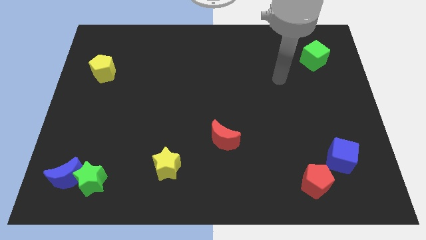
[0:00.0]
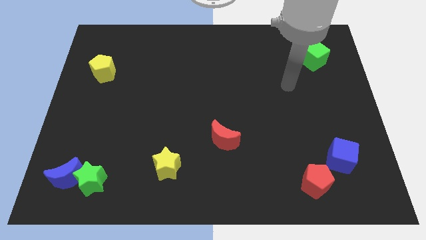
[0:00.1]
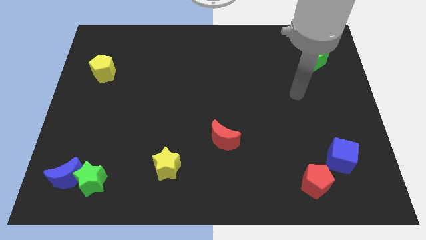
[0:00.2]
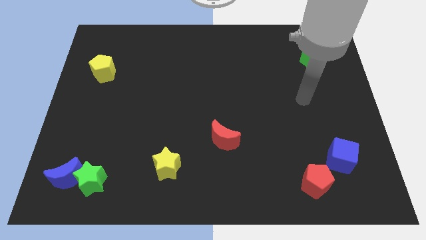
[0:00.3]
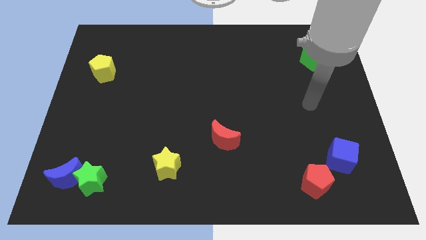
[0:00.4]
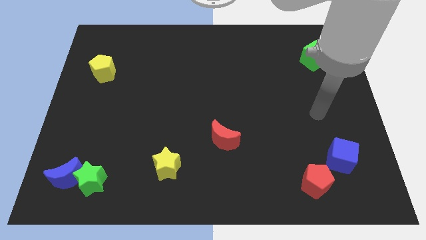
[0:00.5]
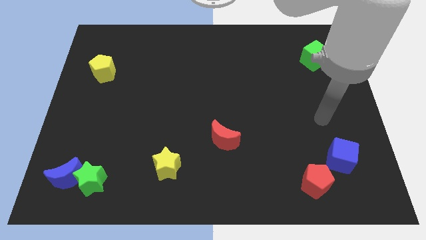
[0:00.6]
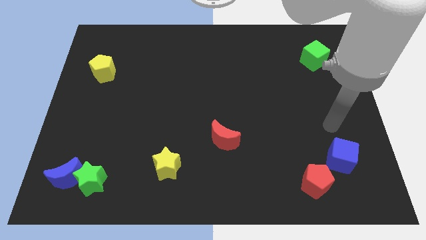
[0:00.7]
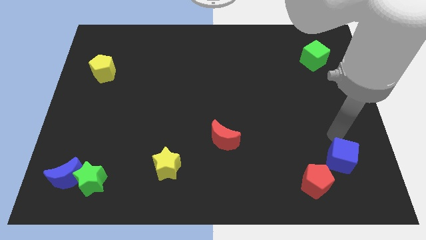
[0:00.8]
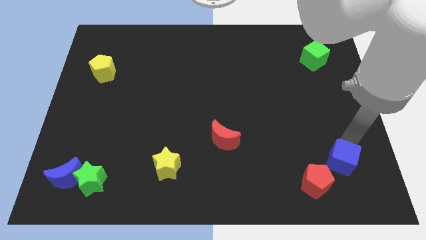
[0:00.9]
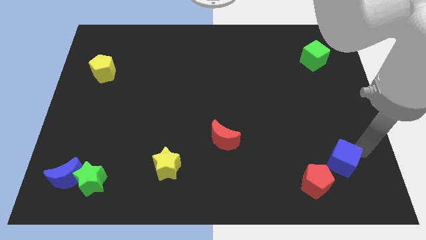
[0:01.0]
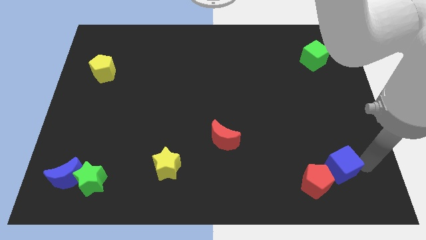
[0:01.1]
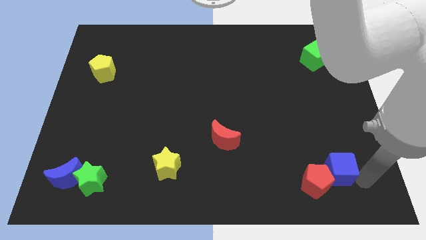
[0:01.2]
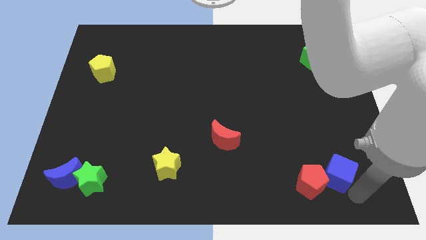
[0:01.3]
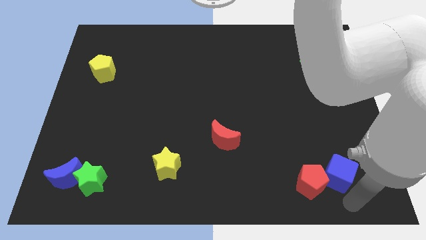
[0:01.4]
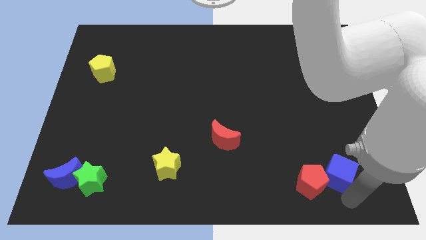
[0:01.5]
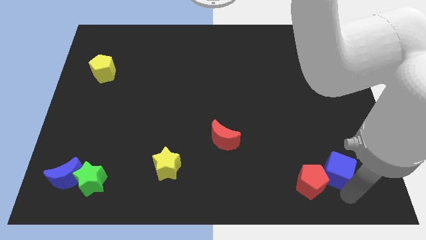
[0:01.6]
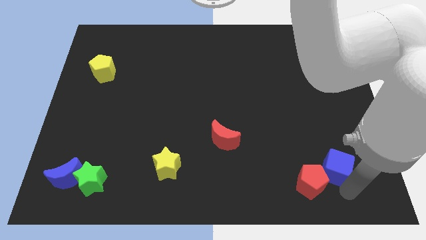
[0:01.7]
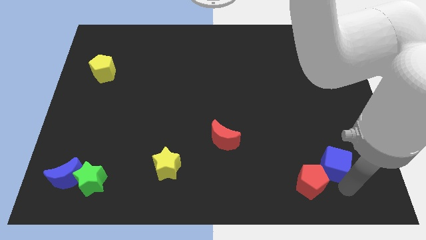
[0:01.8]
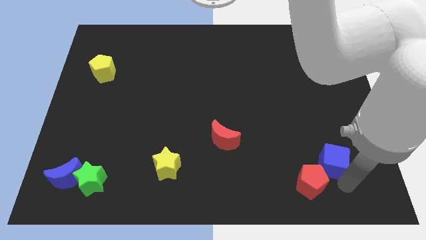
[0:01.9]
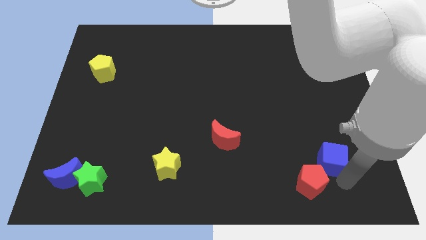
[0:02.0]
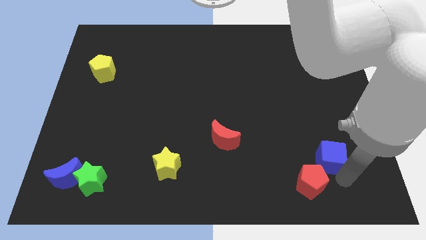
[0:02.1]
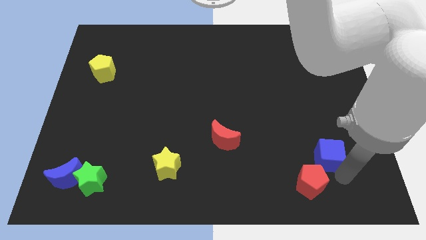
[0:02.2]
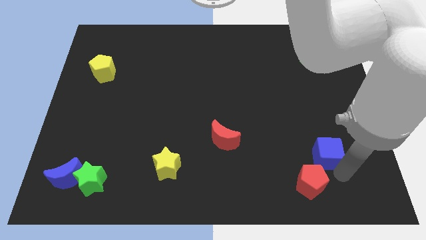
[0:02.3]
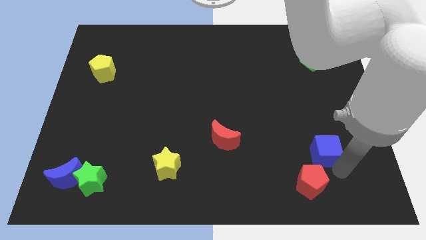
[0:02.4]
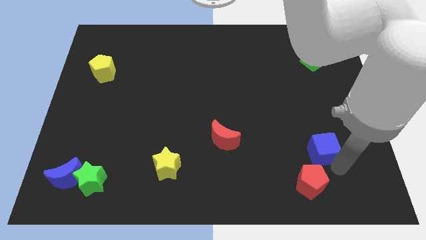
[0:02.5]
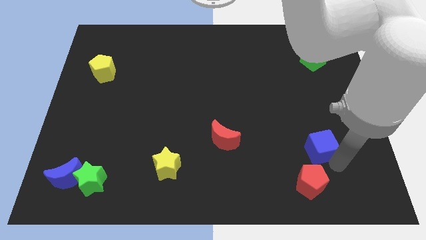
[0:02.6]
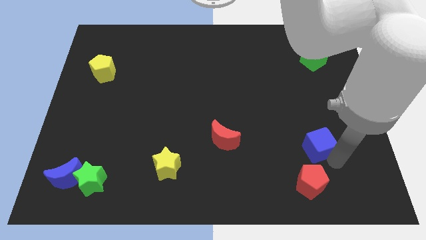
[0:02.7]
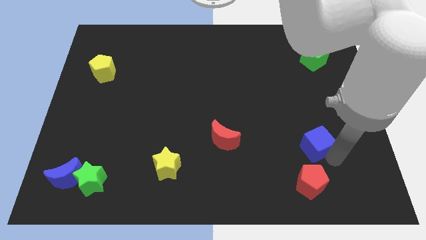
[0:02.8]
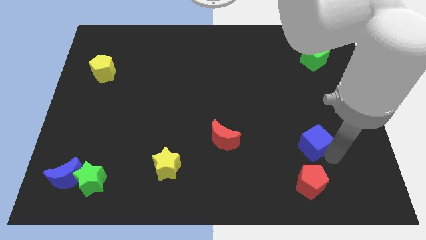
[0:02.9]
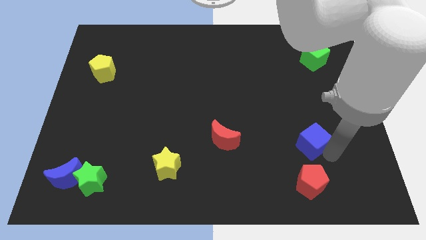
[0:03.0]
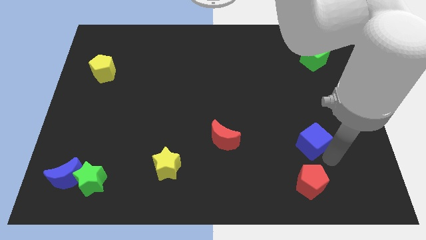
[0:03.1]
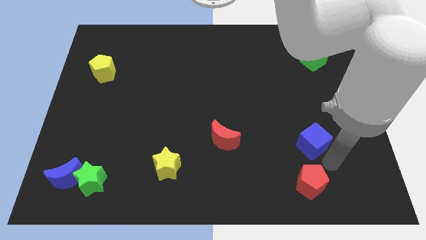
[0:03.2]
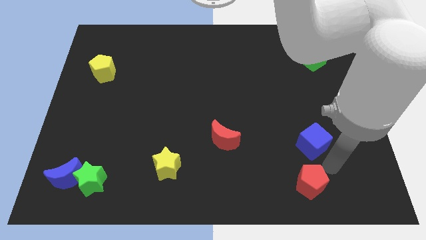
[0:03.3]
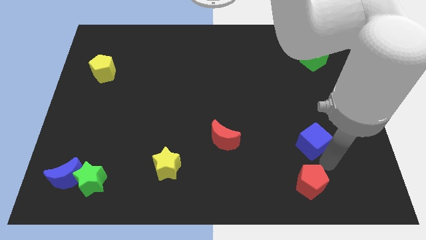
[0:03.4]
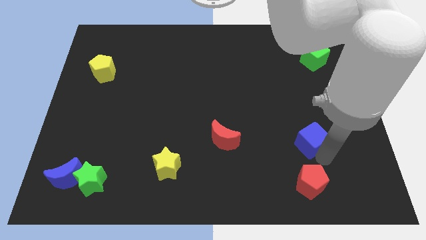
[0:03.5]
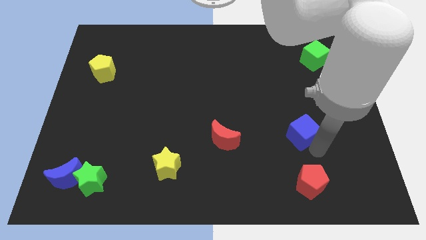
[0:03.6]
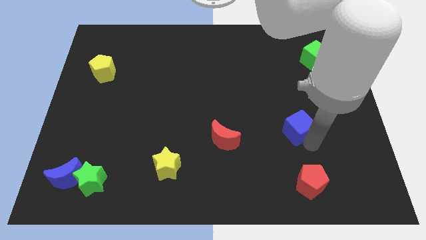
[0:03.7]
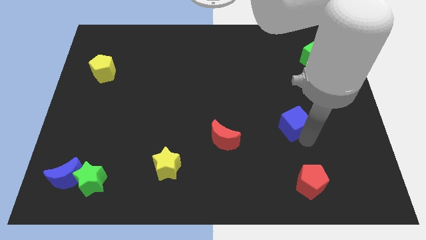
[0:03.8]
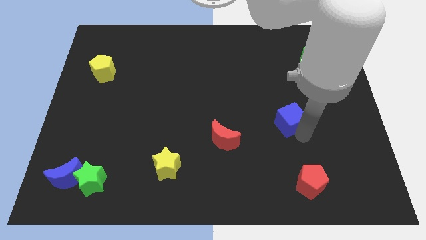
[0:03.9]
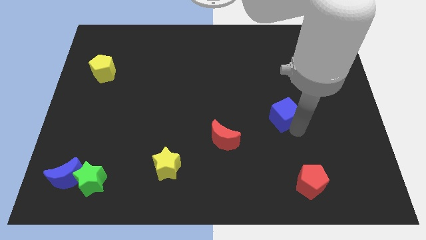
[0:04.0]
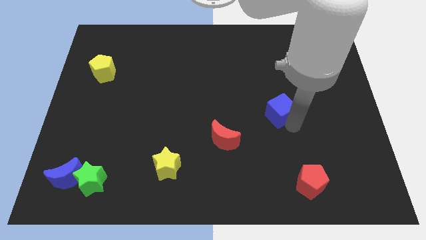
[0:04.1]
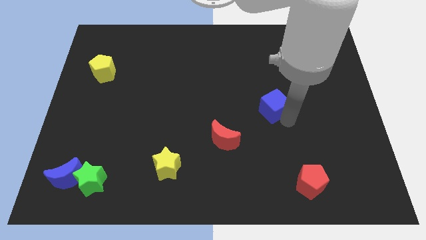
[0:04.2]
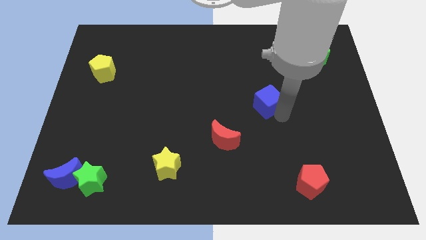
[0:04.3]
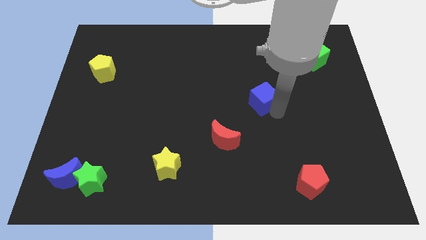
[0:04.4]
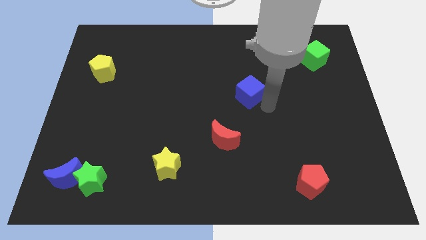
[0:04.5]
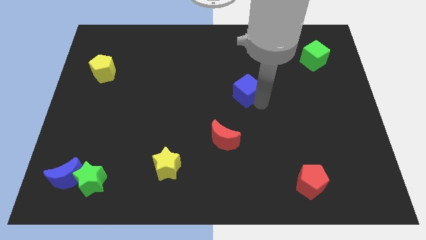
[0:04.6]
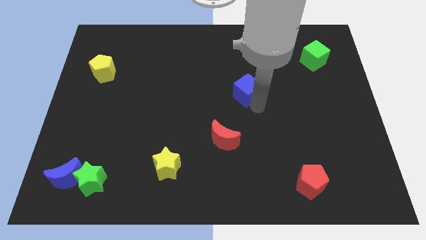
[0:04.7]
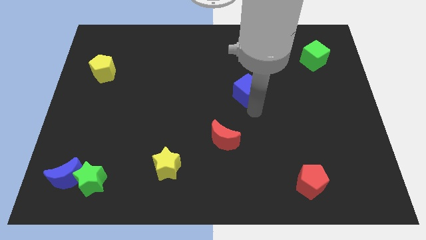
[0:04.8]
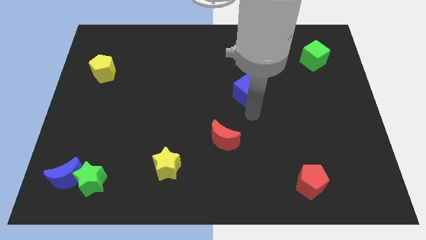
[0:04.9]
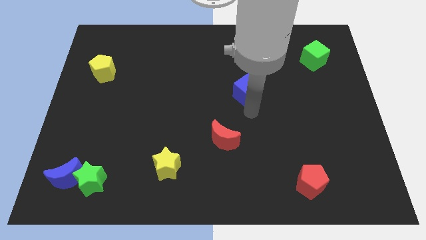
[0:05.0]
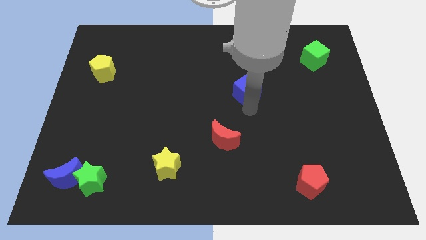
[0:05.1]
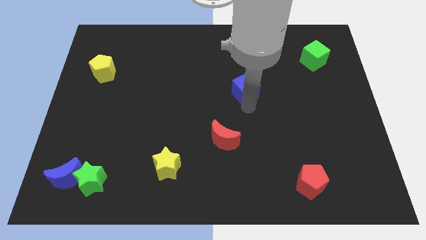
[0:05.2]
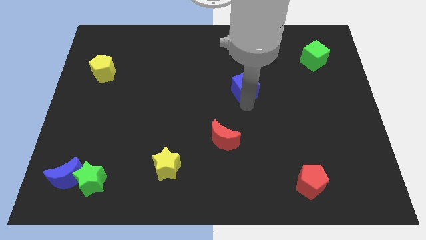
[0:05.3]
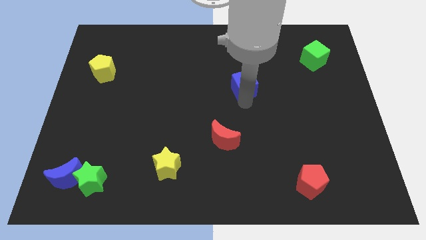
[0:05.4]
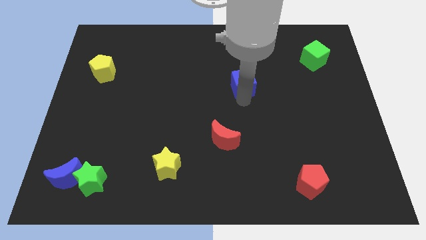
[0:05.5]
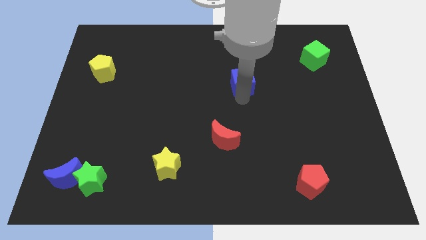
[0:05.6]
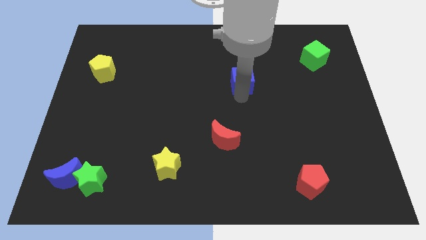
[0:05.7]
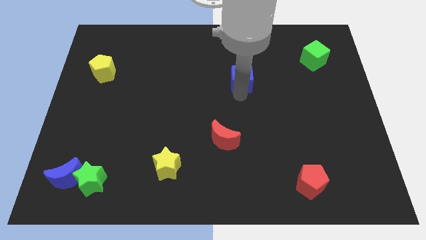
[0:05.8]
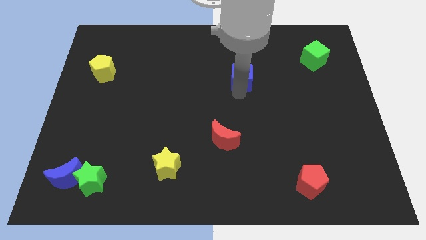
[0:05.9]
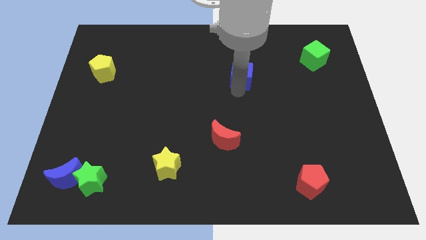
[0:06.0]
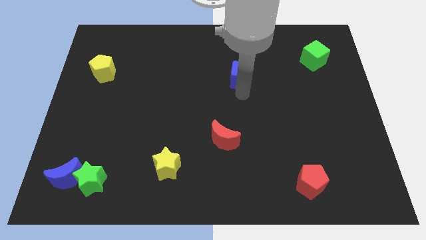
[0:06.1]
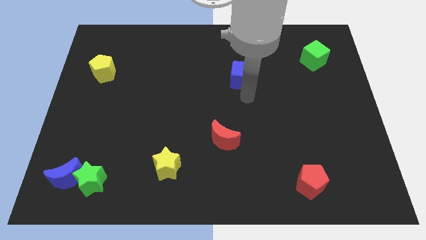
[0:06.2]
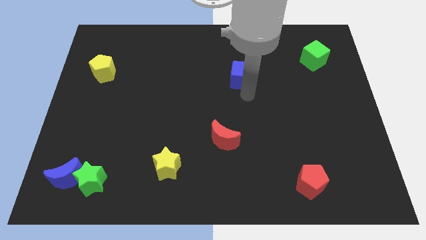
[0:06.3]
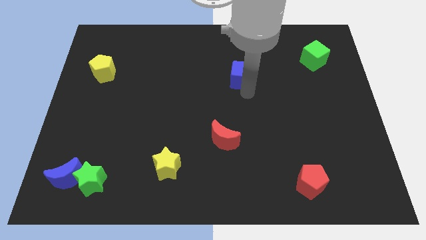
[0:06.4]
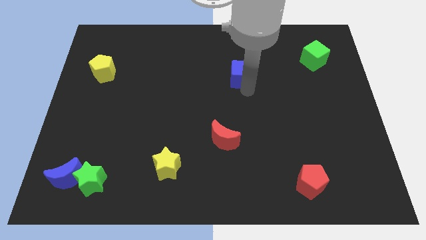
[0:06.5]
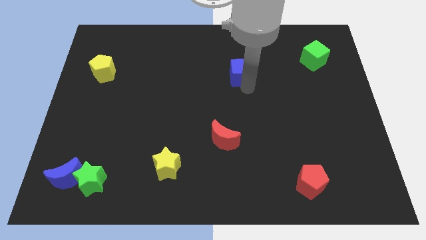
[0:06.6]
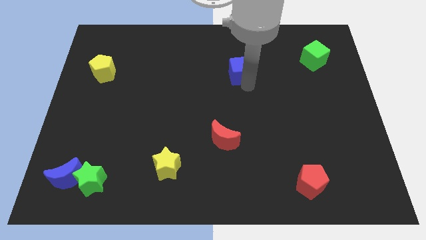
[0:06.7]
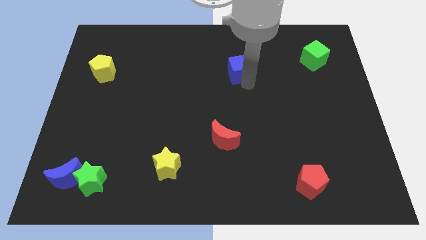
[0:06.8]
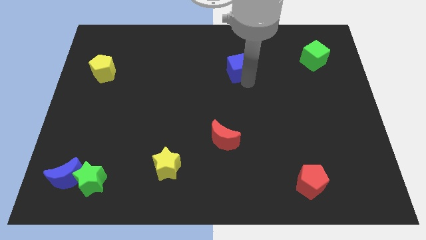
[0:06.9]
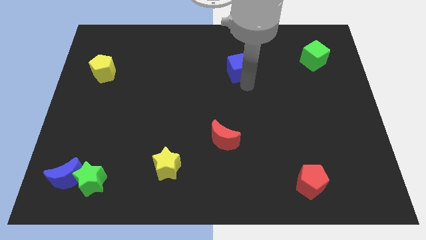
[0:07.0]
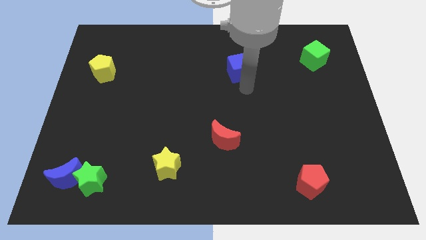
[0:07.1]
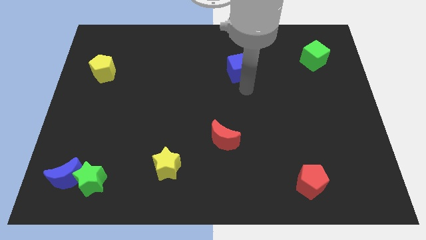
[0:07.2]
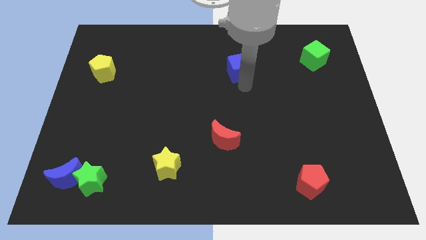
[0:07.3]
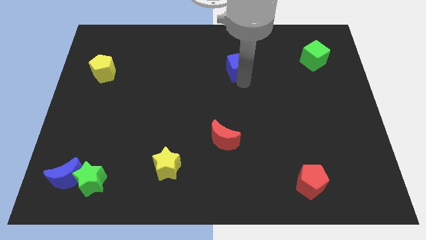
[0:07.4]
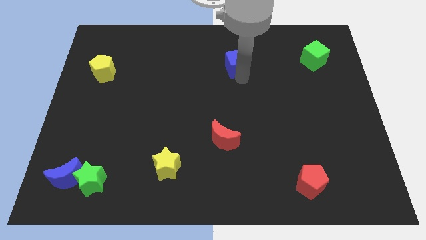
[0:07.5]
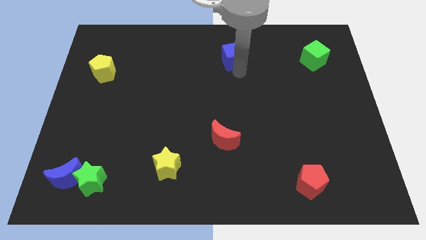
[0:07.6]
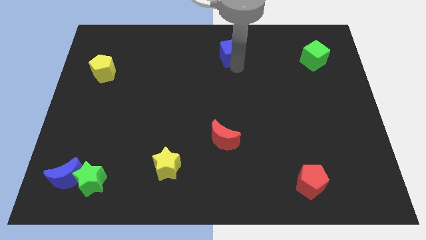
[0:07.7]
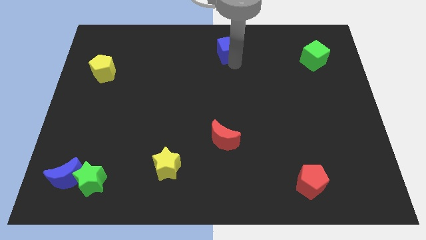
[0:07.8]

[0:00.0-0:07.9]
move the blue cube to the top side
